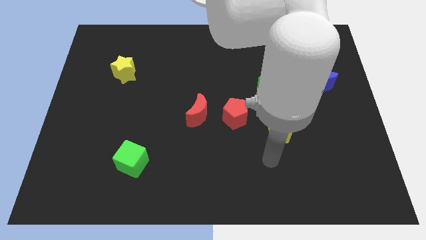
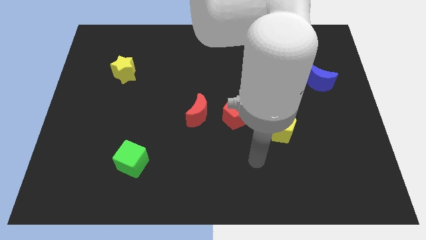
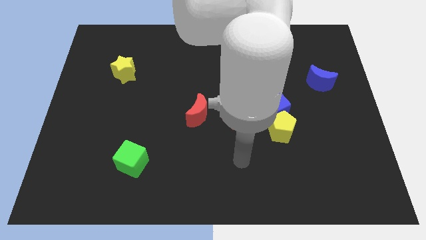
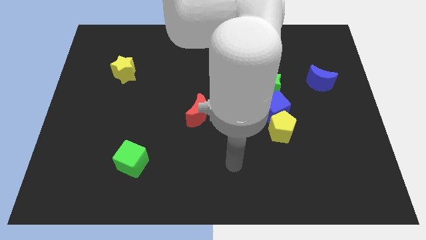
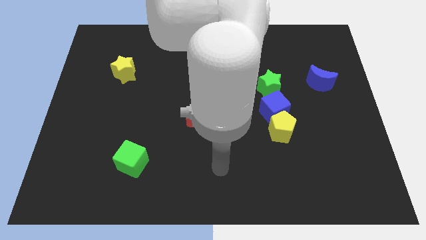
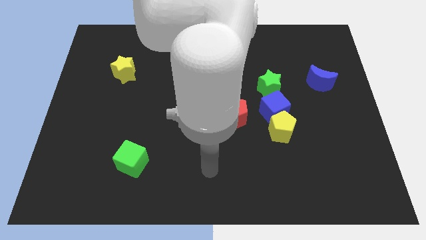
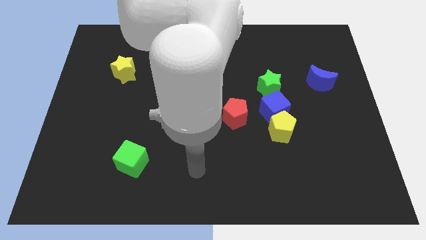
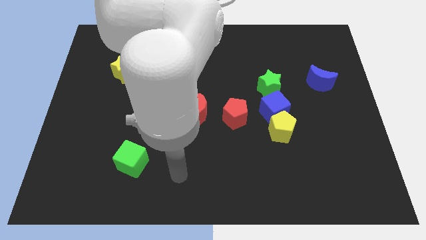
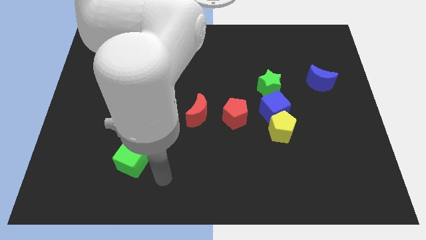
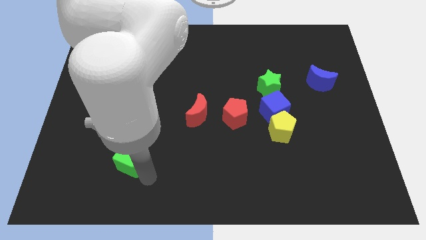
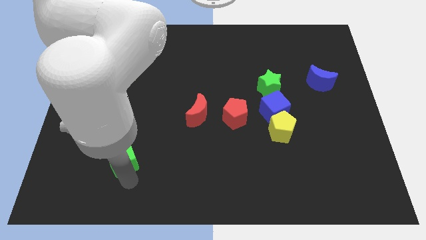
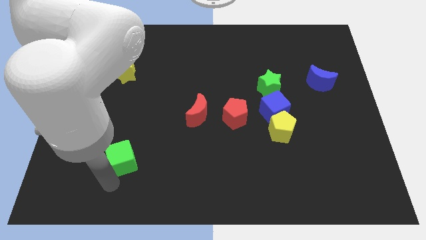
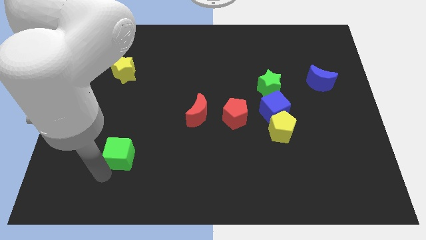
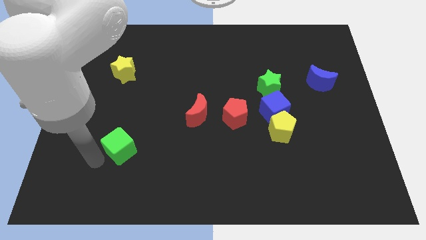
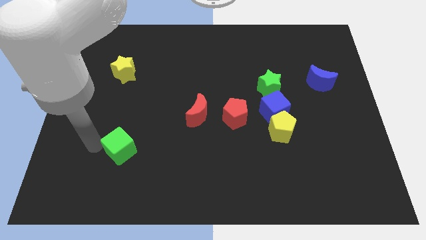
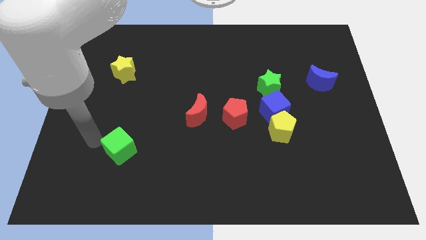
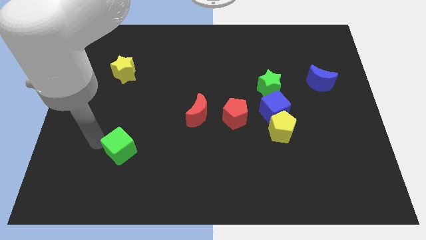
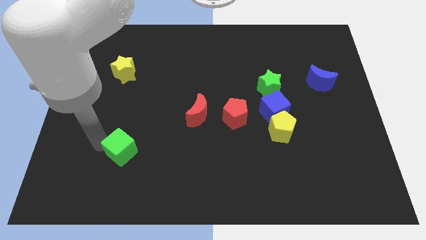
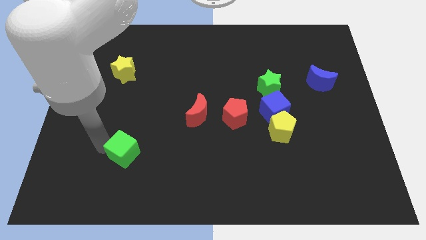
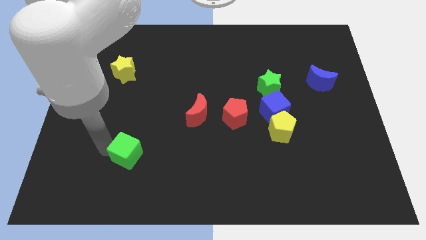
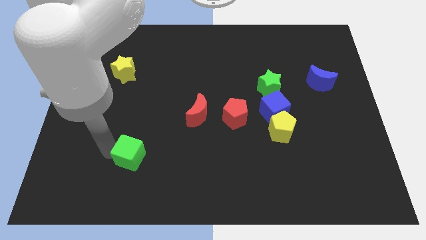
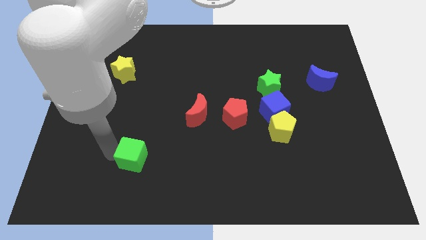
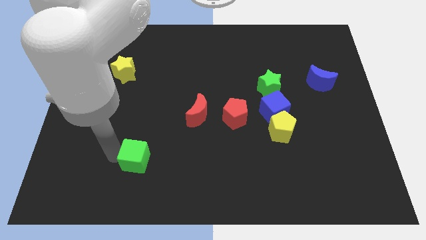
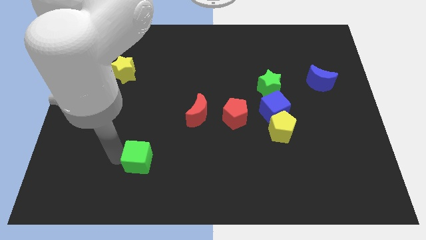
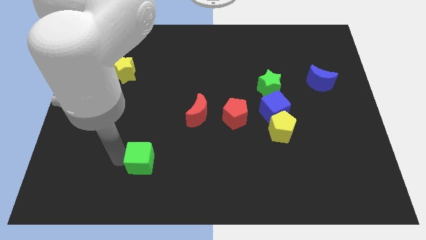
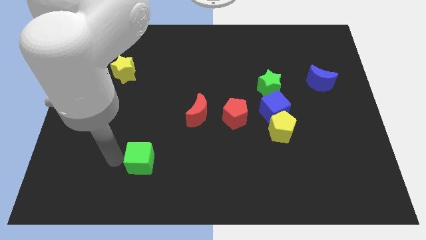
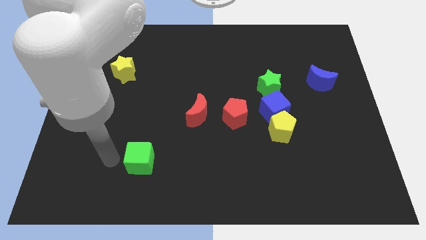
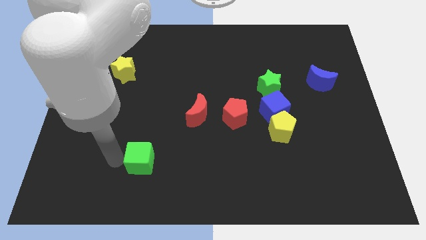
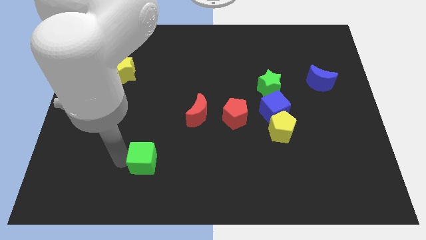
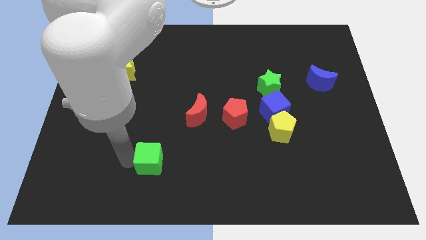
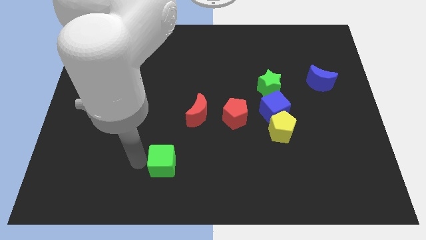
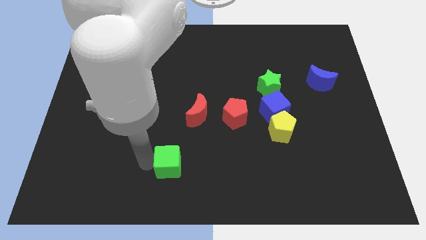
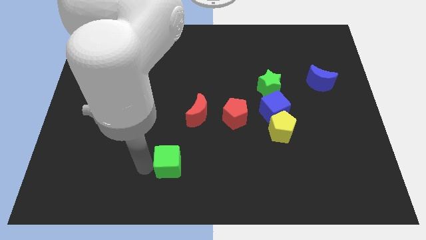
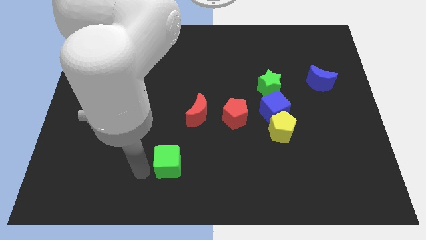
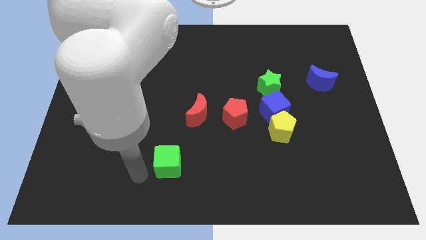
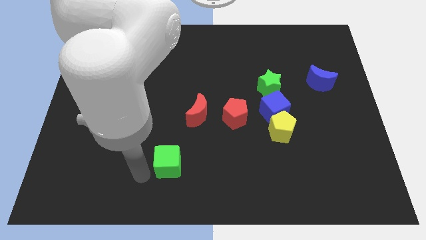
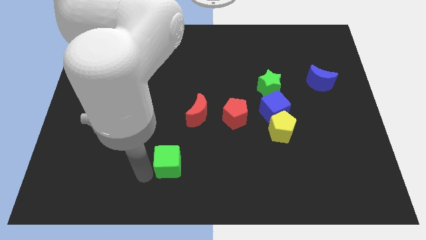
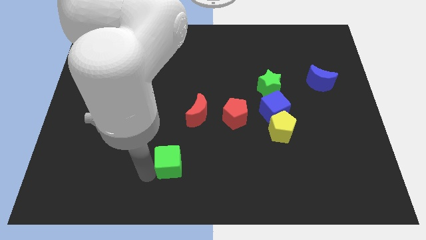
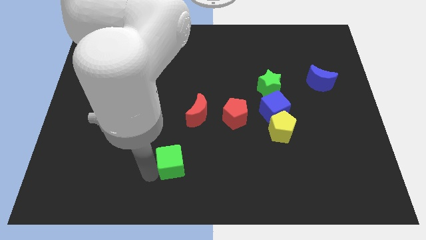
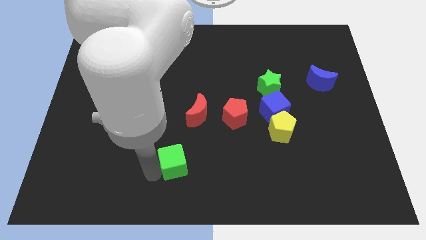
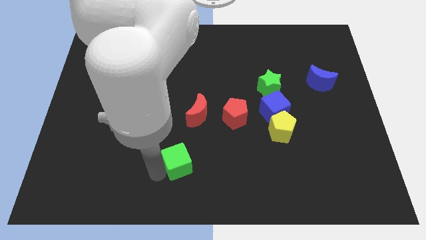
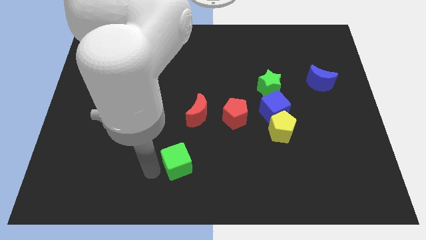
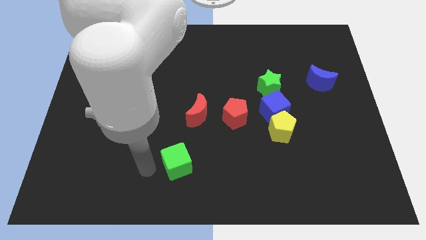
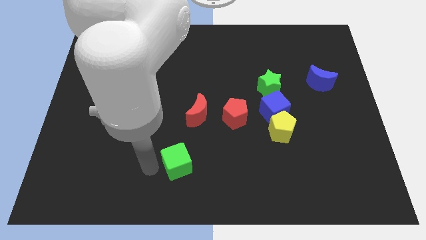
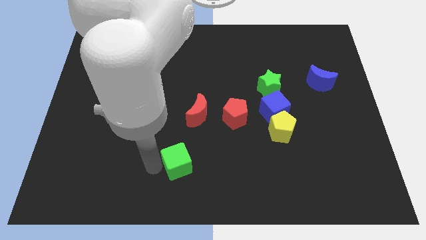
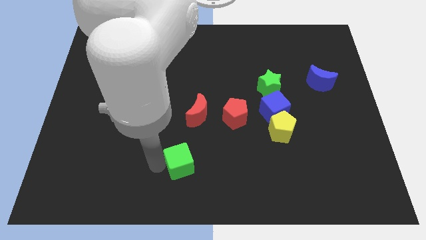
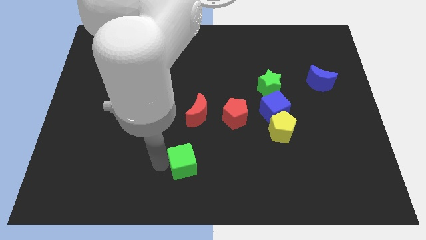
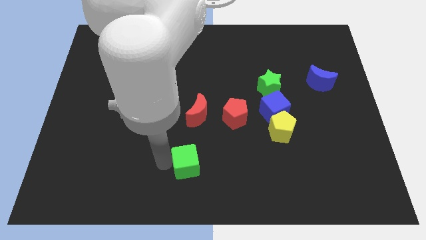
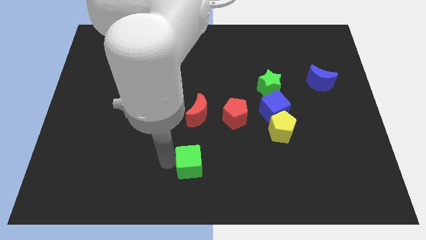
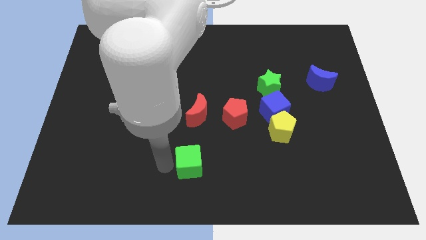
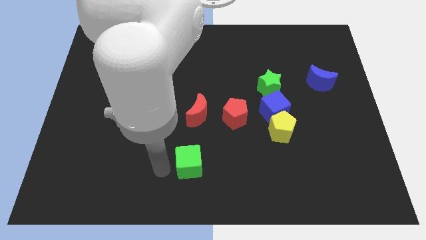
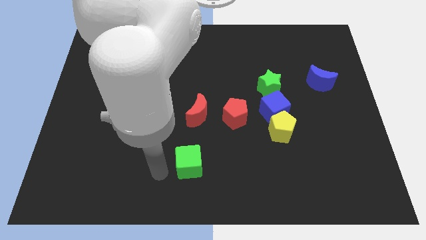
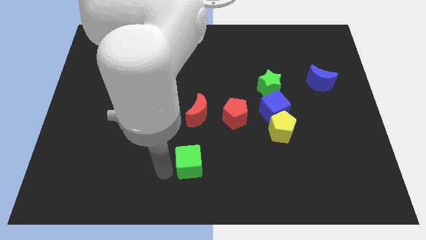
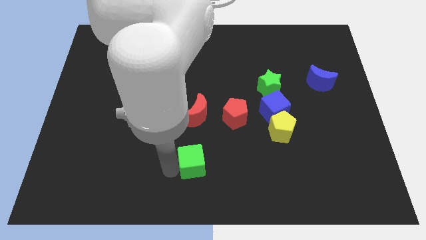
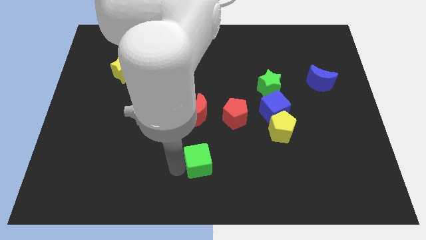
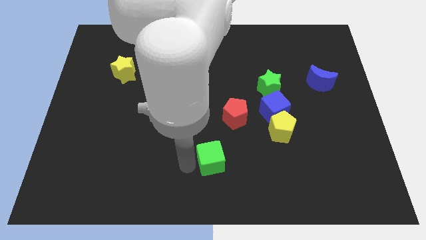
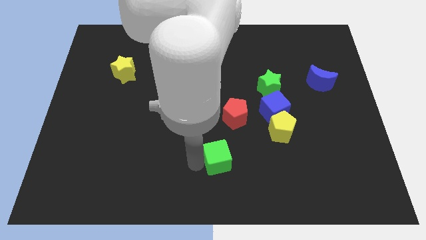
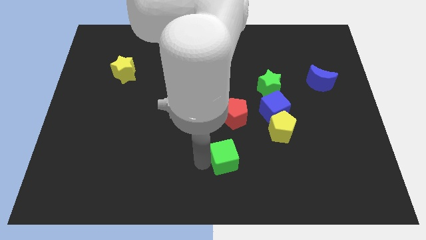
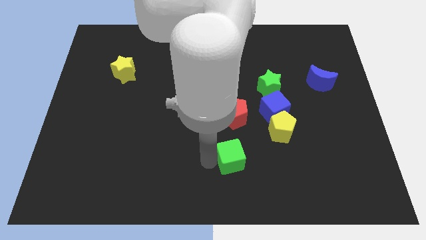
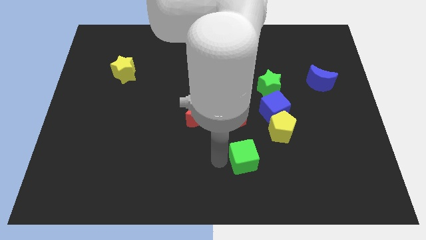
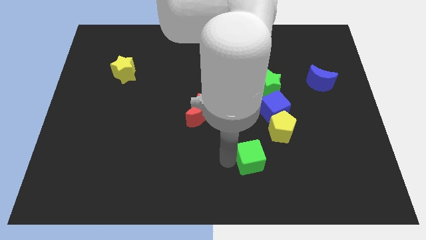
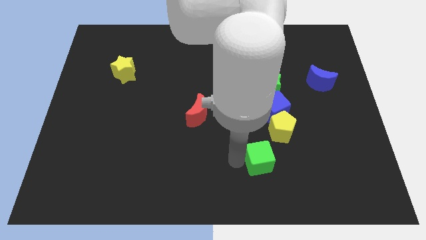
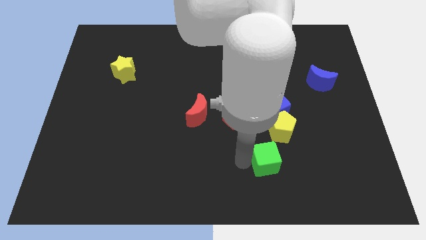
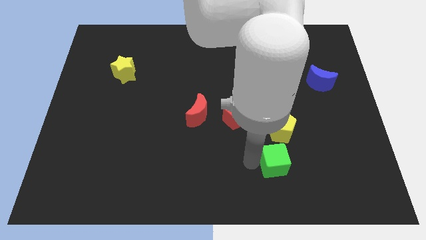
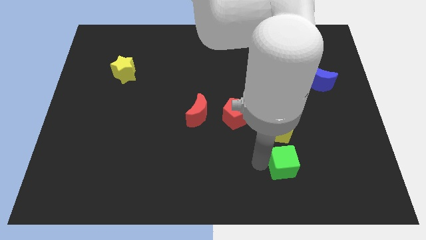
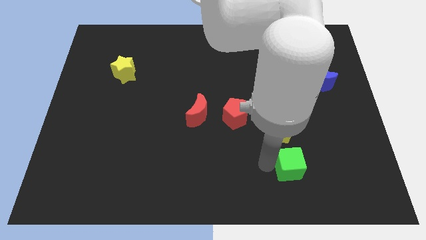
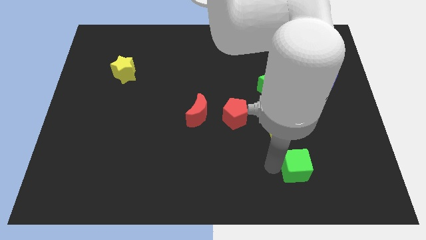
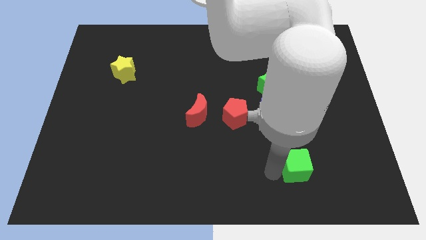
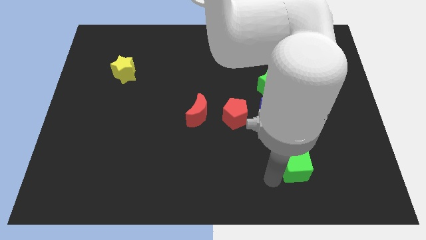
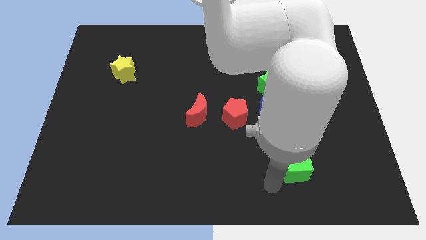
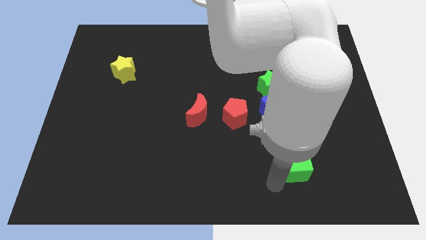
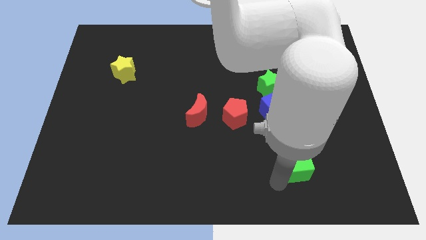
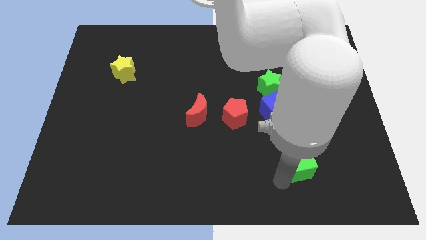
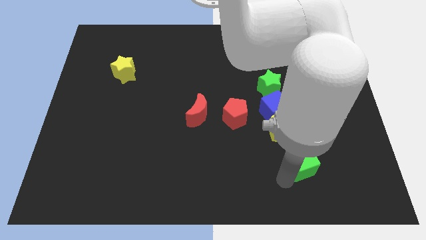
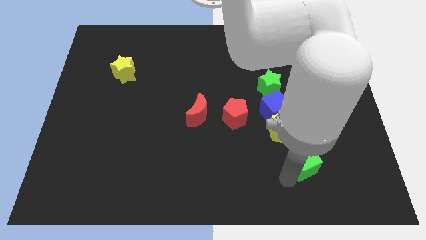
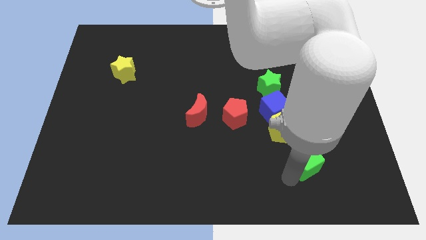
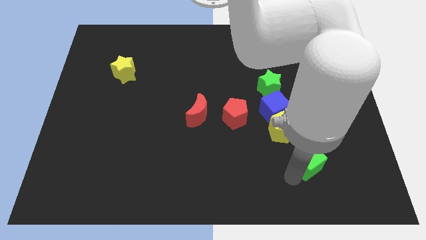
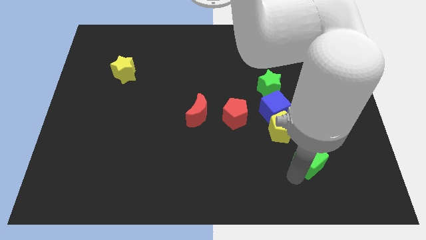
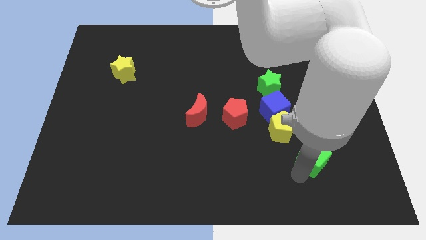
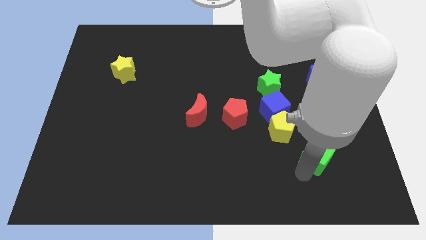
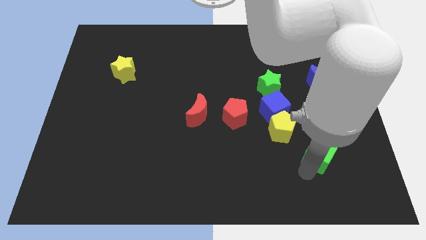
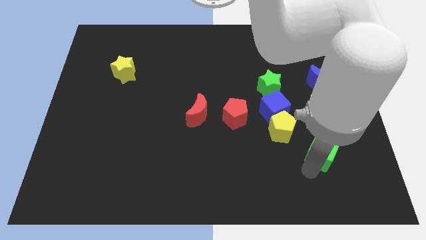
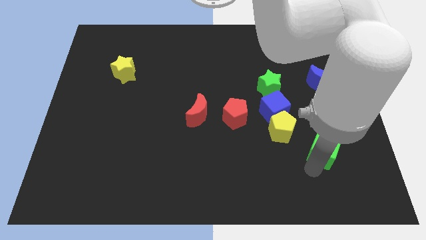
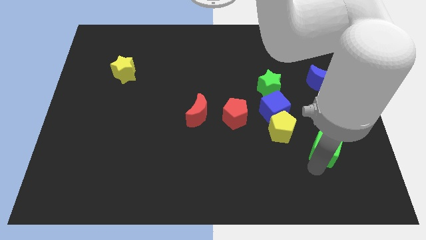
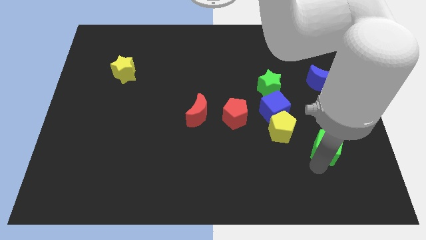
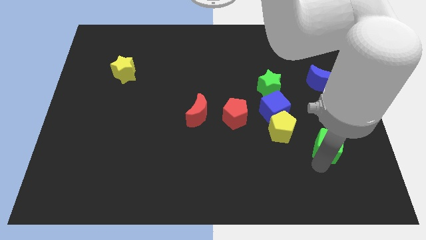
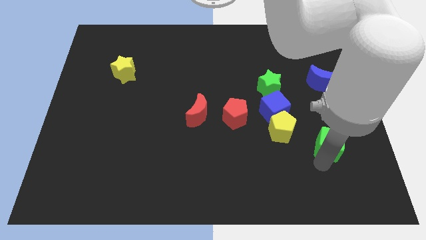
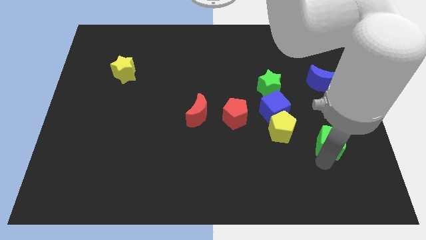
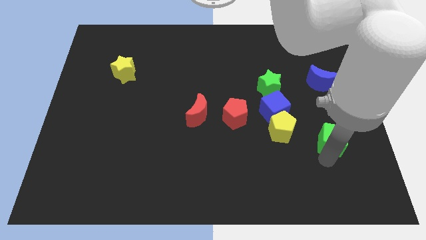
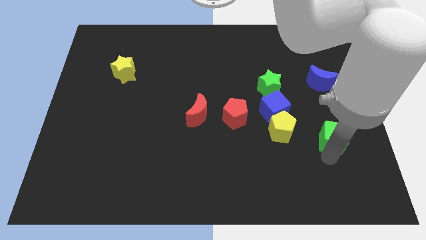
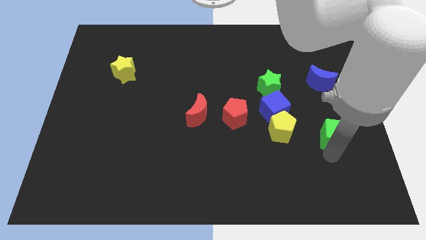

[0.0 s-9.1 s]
push the green cube below the blue moon
